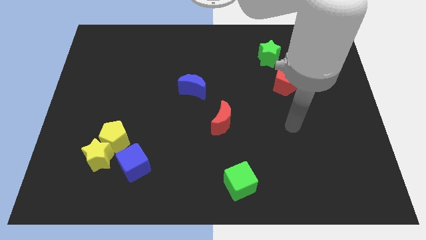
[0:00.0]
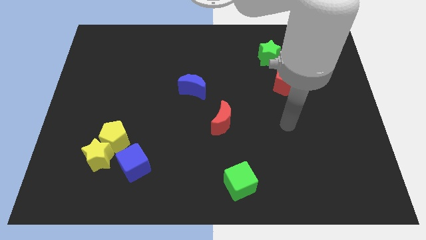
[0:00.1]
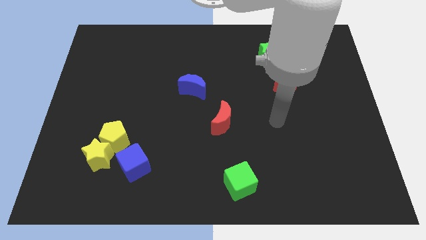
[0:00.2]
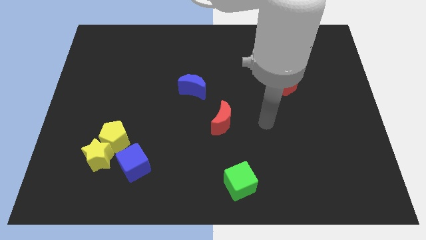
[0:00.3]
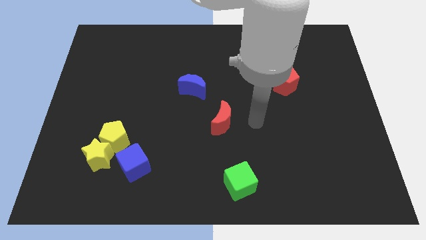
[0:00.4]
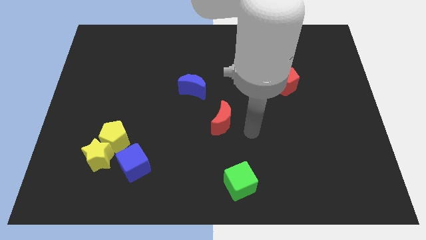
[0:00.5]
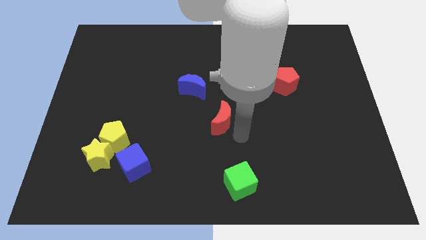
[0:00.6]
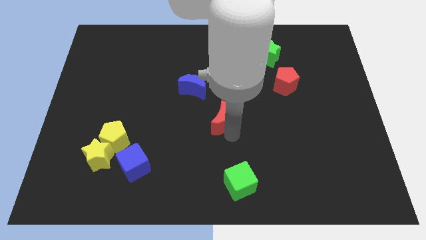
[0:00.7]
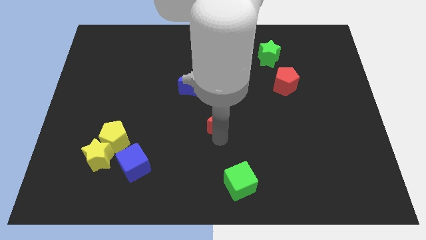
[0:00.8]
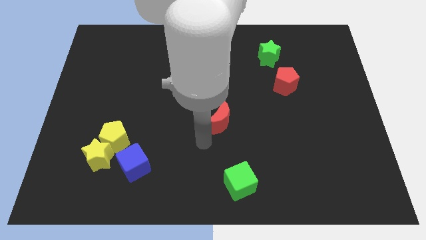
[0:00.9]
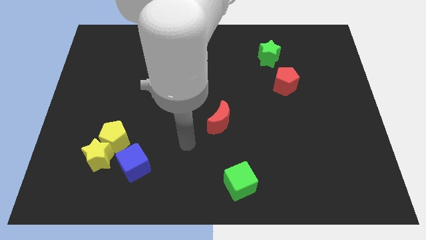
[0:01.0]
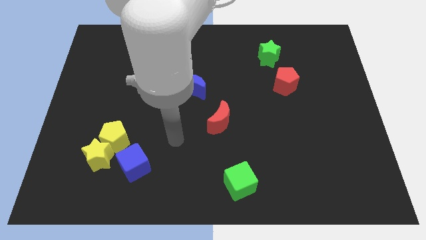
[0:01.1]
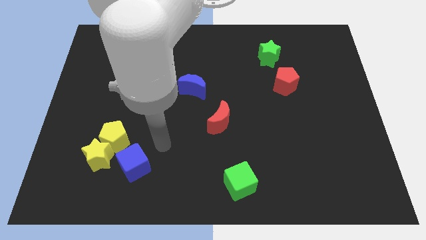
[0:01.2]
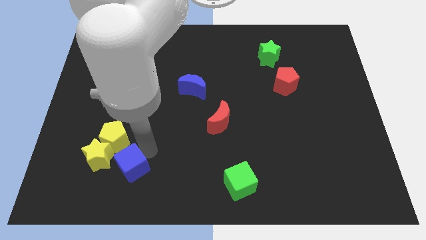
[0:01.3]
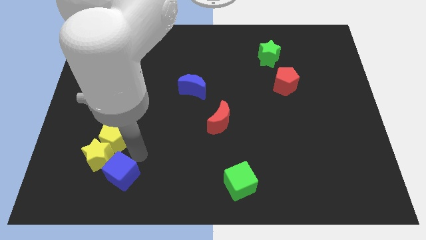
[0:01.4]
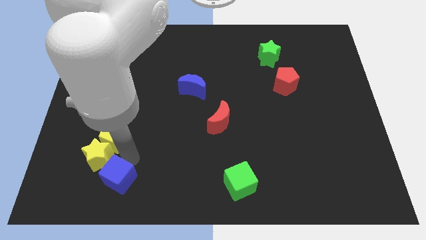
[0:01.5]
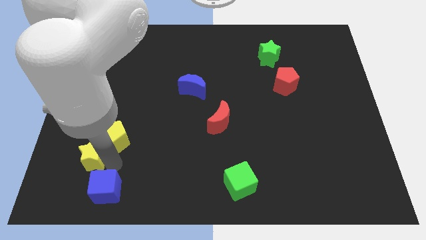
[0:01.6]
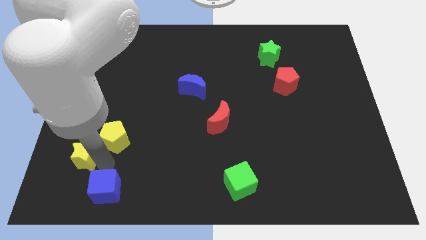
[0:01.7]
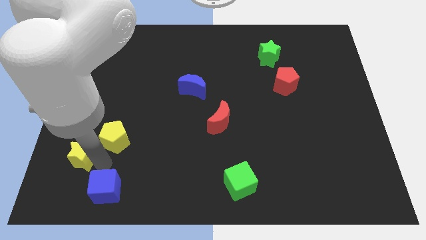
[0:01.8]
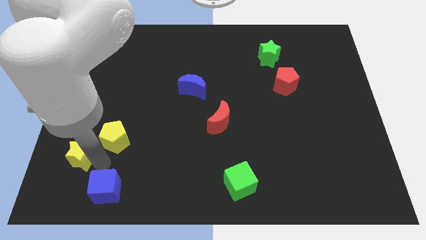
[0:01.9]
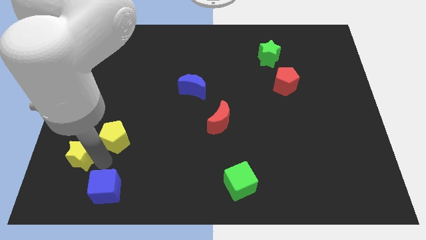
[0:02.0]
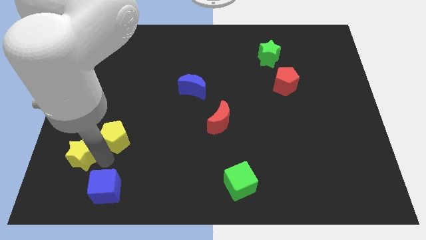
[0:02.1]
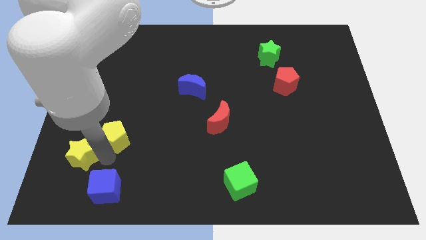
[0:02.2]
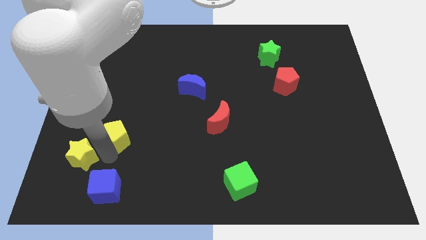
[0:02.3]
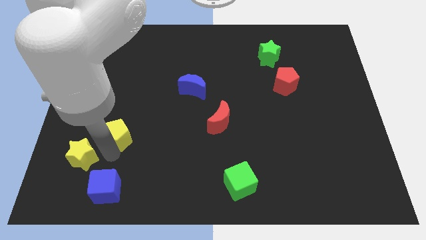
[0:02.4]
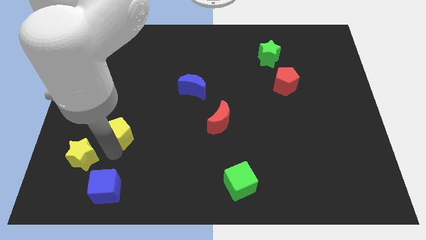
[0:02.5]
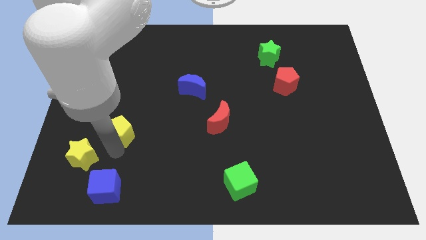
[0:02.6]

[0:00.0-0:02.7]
pull the yellow pentagon apart from the yellow star and blue cube

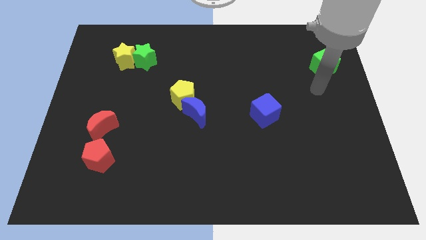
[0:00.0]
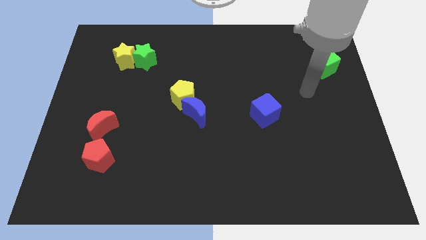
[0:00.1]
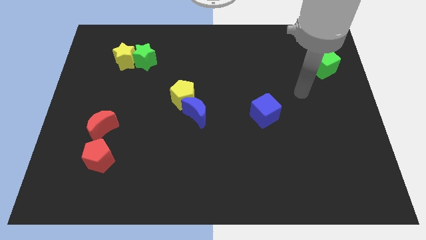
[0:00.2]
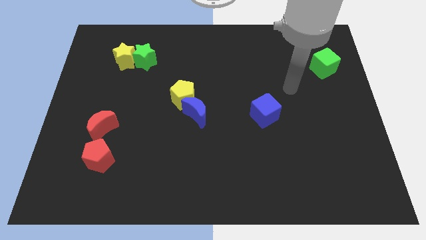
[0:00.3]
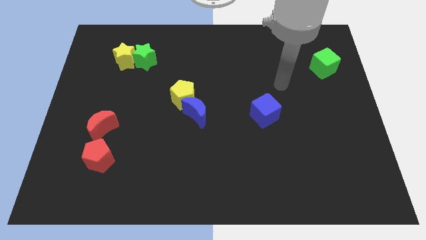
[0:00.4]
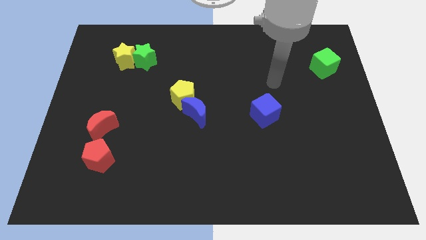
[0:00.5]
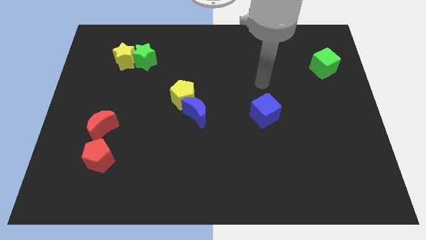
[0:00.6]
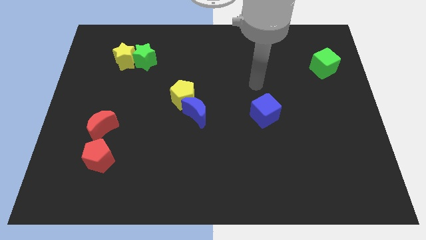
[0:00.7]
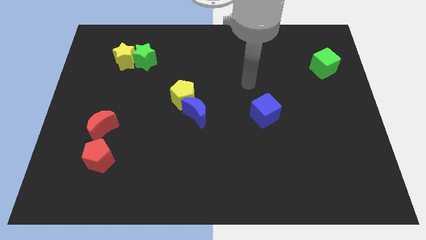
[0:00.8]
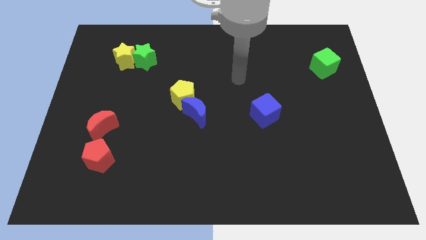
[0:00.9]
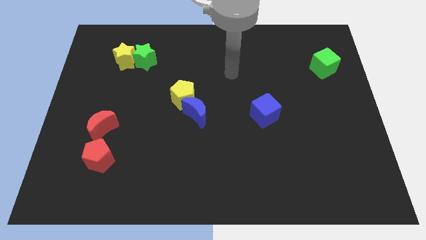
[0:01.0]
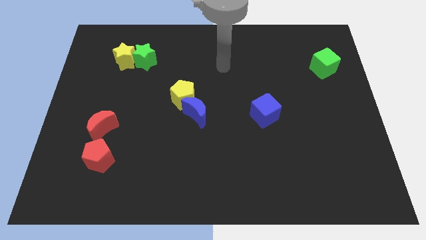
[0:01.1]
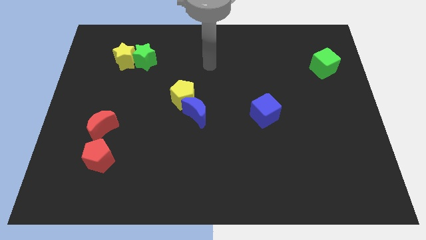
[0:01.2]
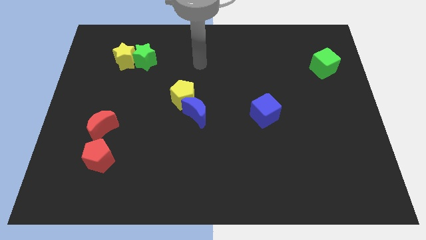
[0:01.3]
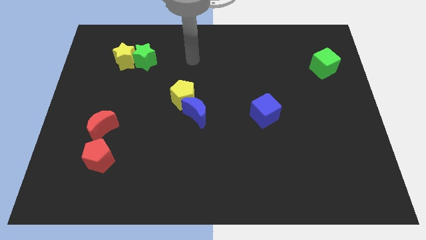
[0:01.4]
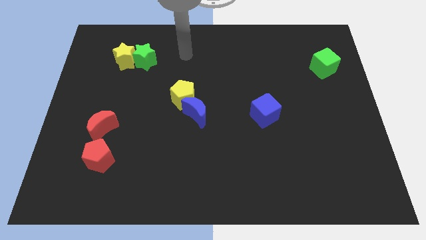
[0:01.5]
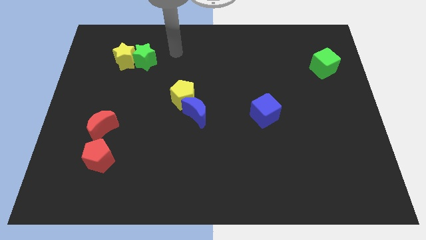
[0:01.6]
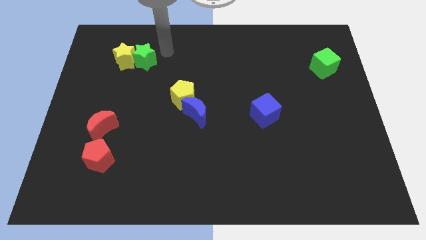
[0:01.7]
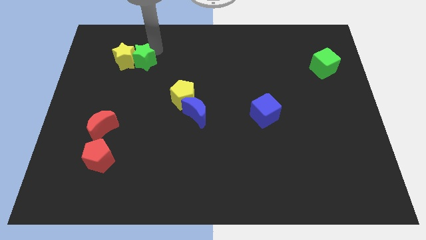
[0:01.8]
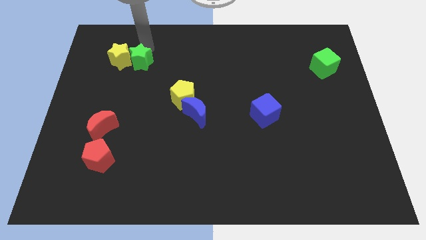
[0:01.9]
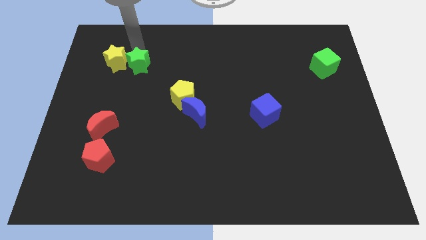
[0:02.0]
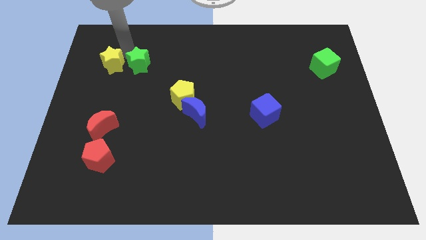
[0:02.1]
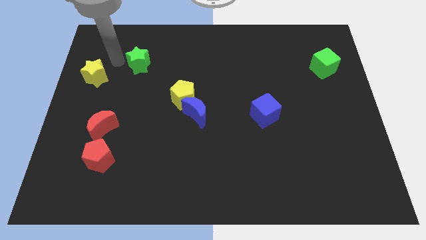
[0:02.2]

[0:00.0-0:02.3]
separate the green star from the yellow star

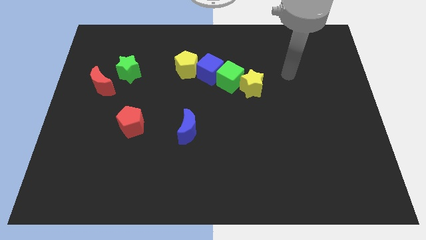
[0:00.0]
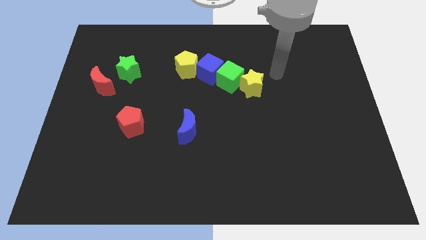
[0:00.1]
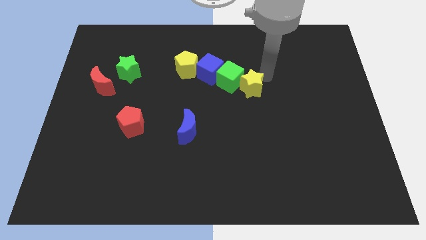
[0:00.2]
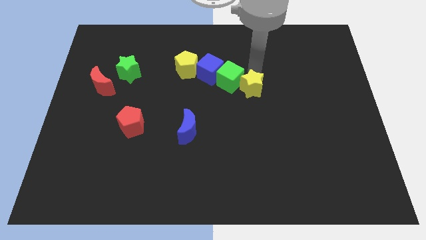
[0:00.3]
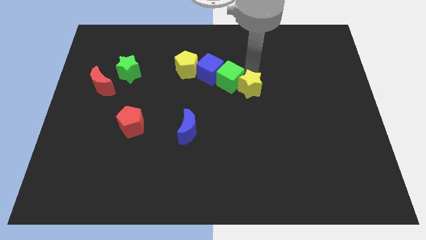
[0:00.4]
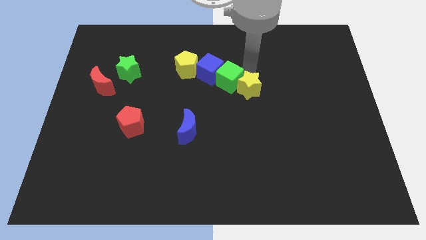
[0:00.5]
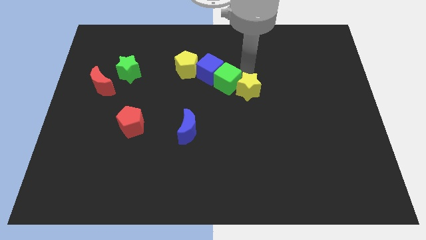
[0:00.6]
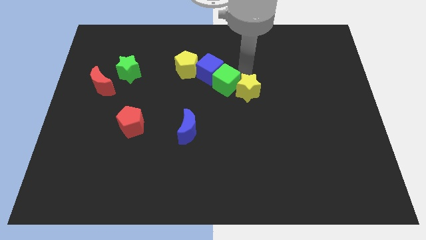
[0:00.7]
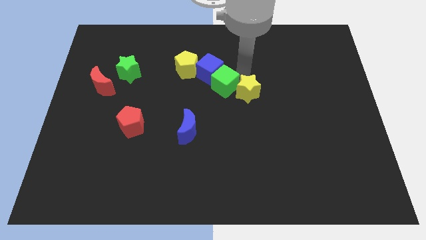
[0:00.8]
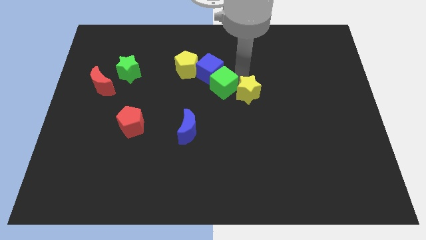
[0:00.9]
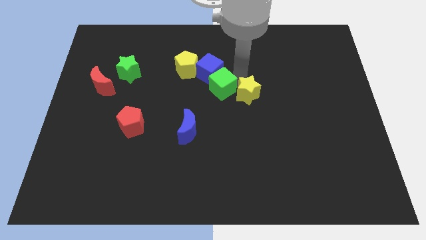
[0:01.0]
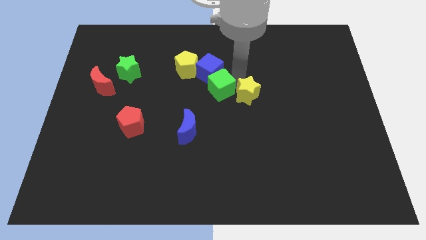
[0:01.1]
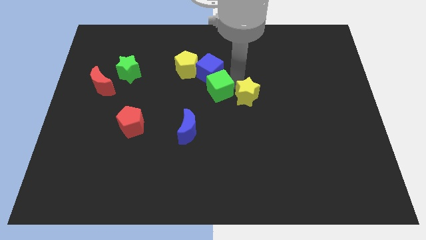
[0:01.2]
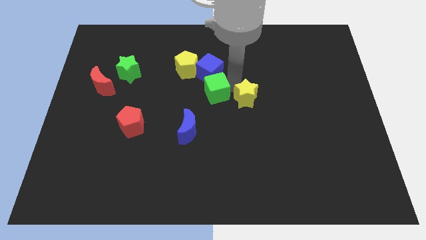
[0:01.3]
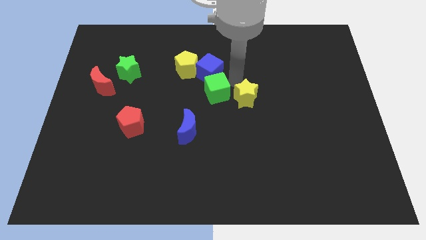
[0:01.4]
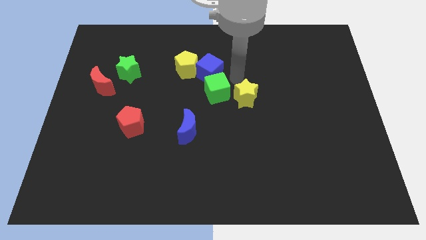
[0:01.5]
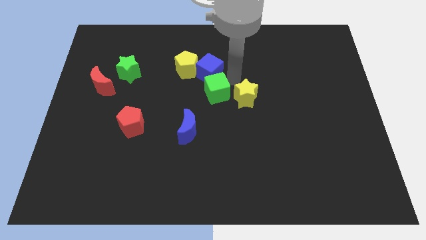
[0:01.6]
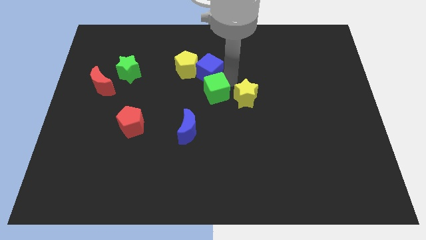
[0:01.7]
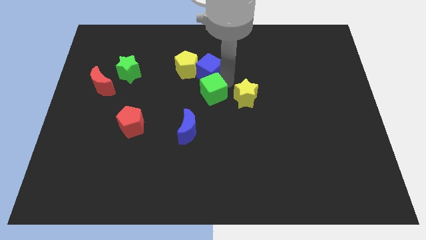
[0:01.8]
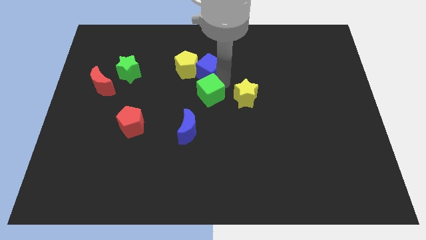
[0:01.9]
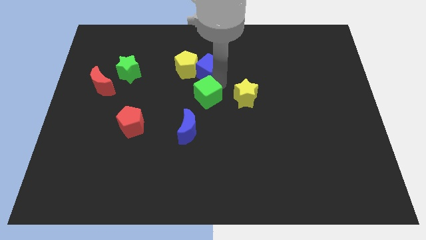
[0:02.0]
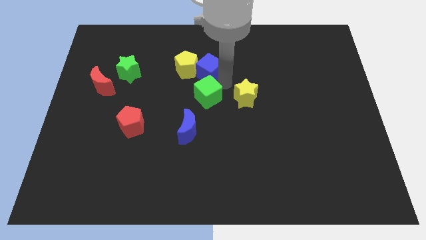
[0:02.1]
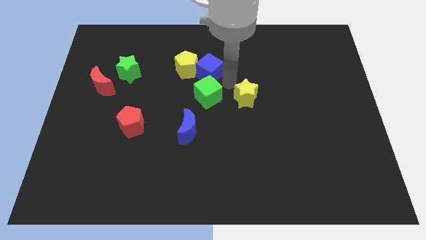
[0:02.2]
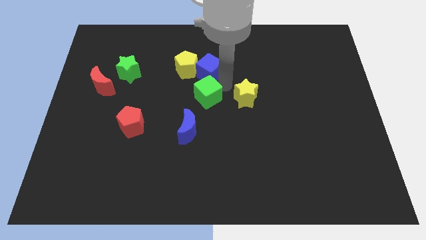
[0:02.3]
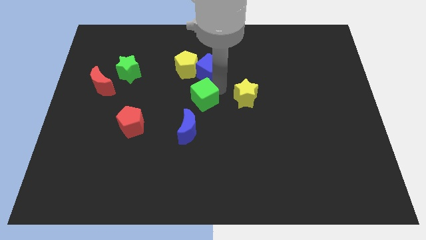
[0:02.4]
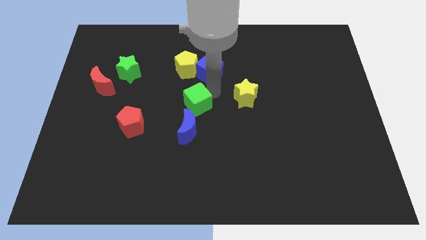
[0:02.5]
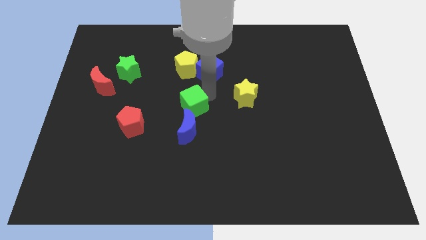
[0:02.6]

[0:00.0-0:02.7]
separate the green cube from the blue cube and yellow star

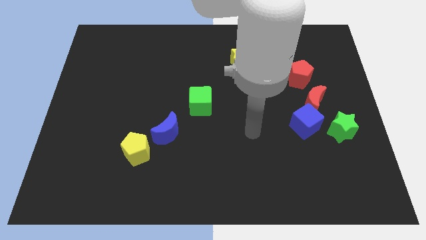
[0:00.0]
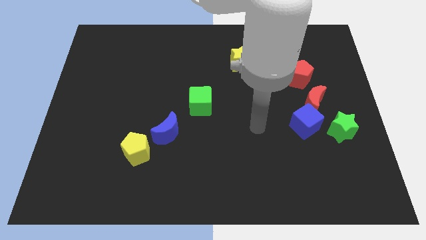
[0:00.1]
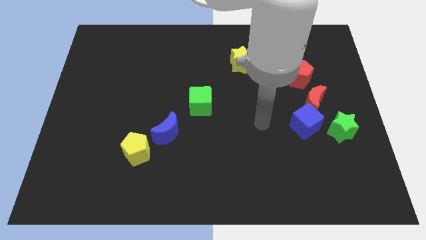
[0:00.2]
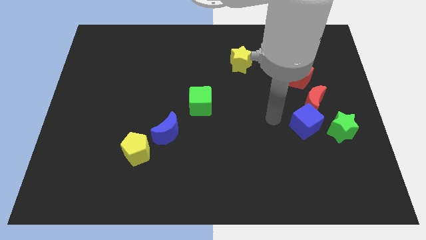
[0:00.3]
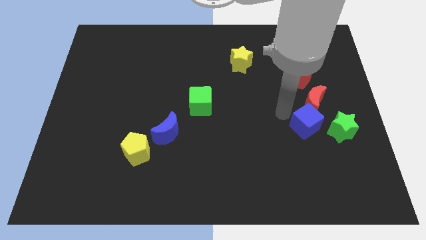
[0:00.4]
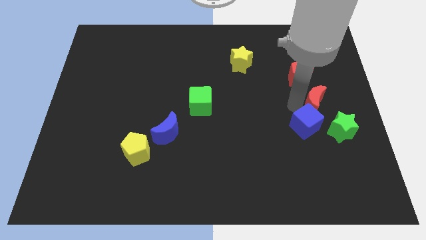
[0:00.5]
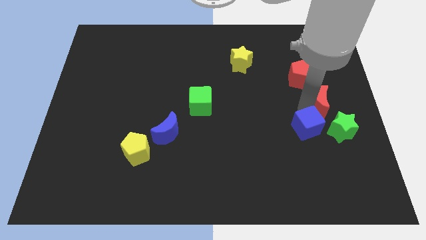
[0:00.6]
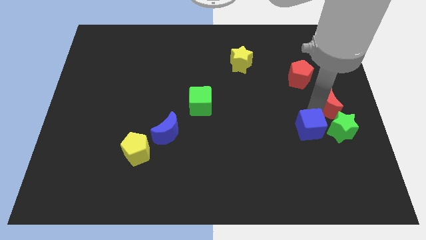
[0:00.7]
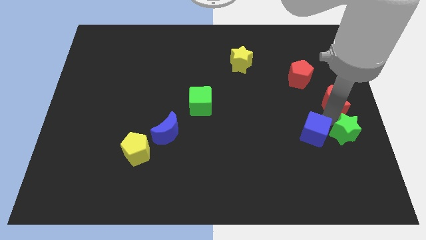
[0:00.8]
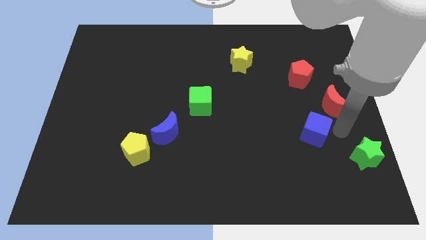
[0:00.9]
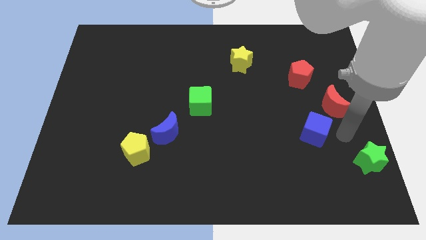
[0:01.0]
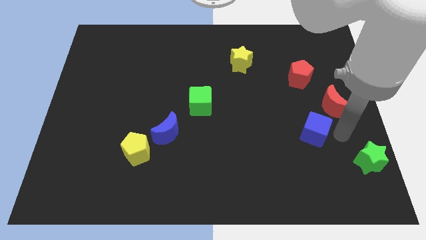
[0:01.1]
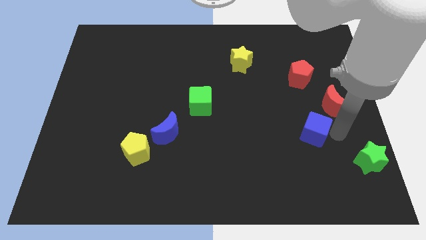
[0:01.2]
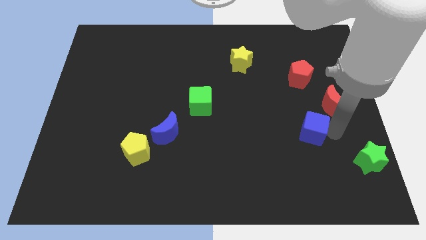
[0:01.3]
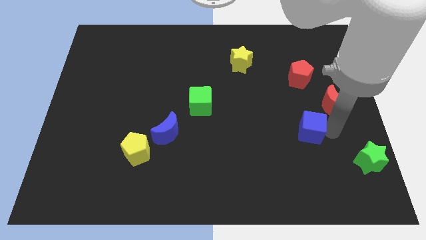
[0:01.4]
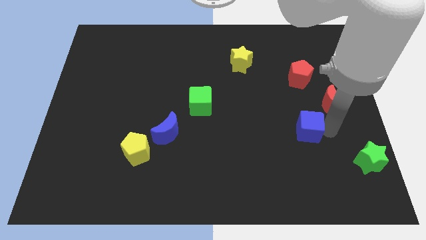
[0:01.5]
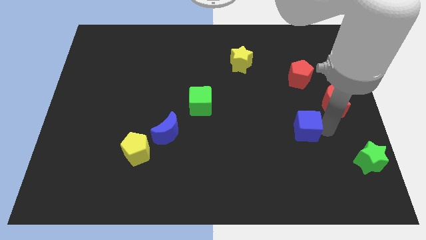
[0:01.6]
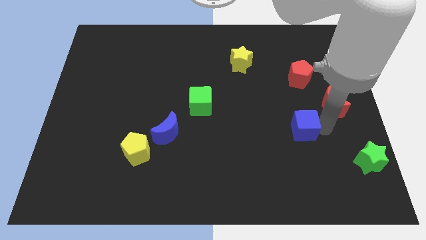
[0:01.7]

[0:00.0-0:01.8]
pull the blue cube apart from the red moon and green star
